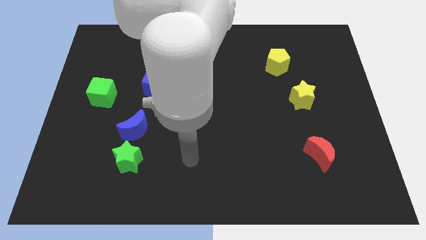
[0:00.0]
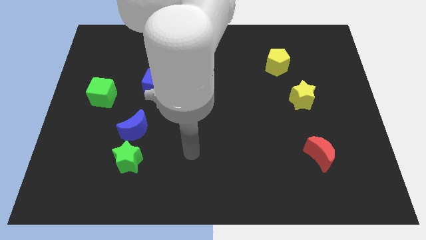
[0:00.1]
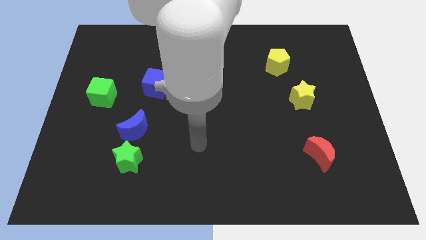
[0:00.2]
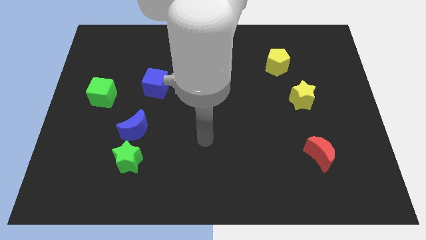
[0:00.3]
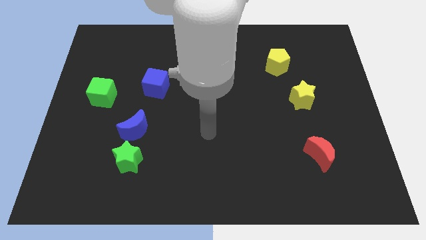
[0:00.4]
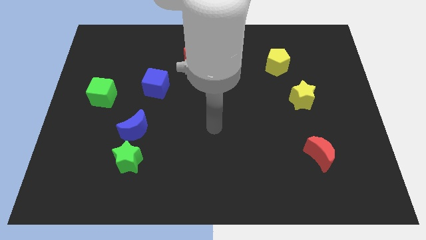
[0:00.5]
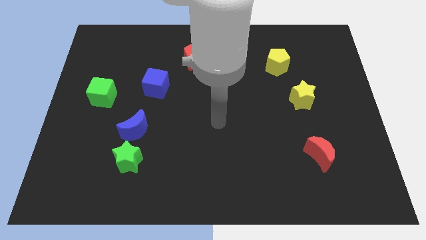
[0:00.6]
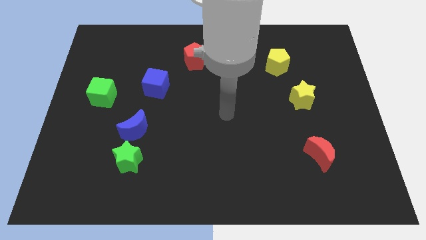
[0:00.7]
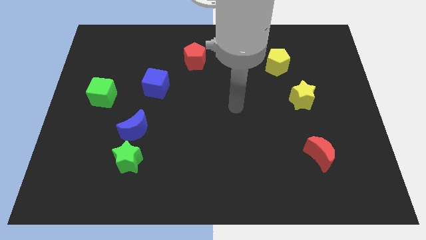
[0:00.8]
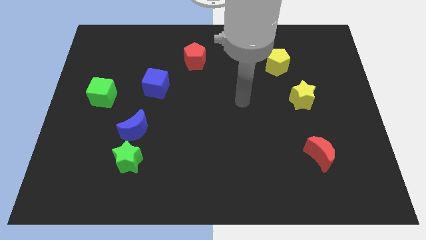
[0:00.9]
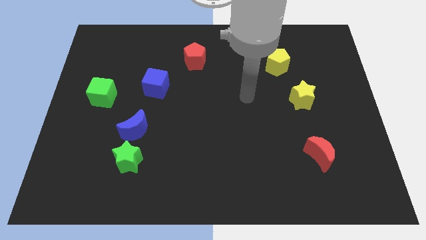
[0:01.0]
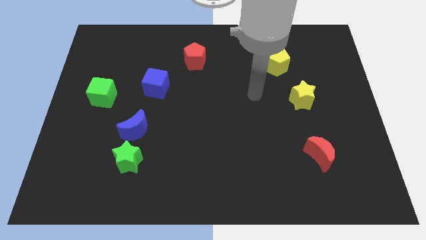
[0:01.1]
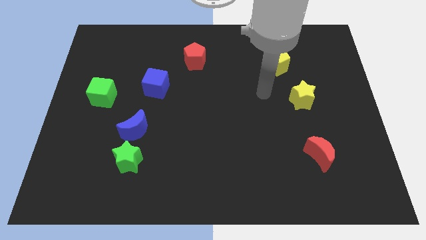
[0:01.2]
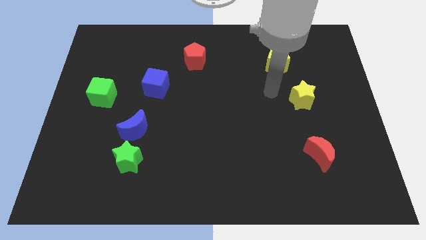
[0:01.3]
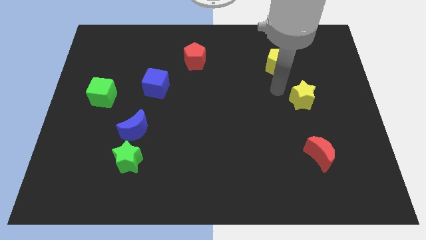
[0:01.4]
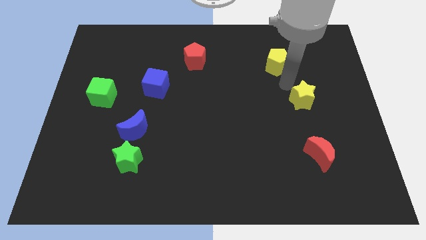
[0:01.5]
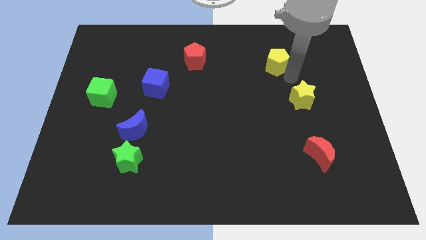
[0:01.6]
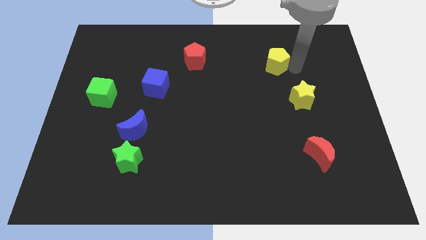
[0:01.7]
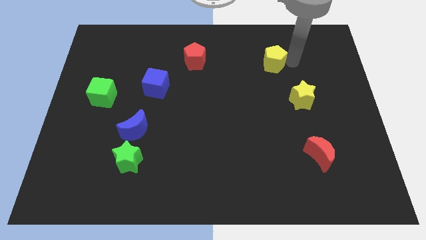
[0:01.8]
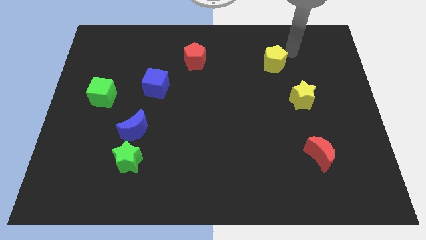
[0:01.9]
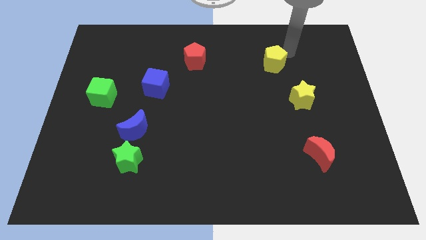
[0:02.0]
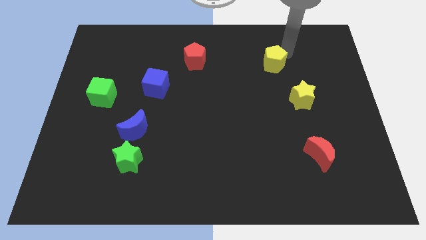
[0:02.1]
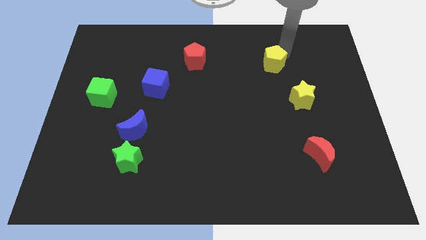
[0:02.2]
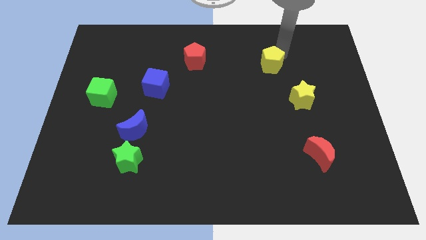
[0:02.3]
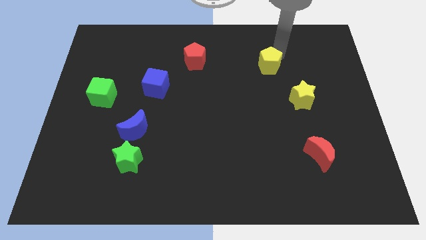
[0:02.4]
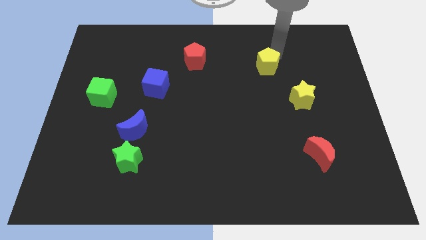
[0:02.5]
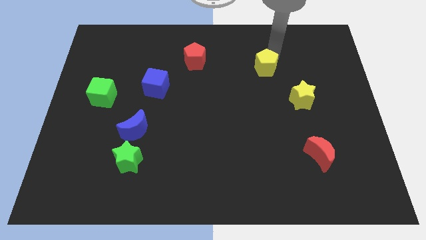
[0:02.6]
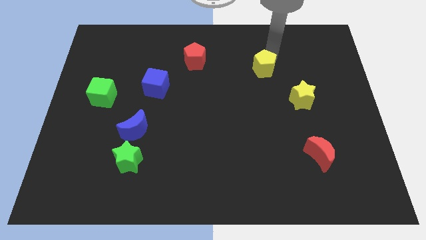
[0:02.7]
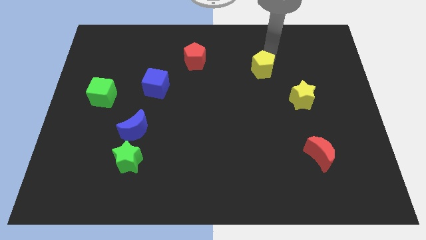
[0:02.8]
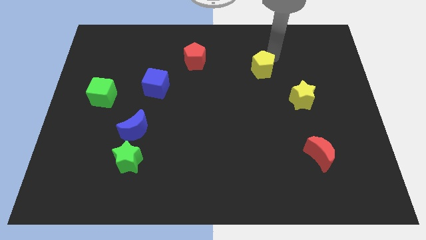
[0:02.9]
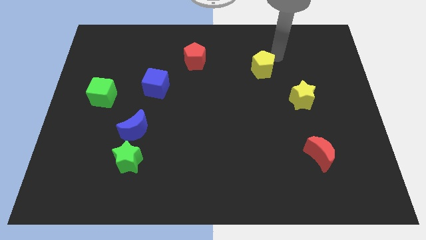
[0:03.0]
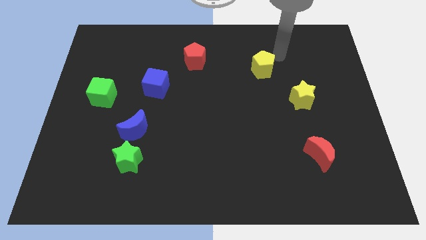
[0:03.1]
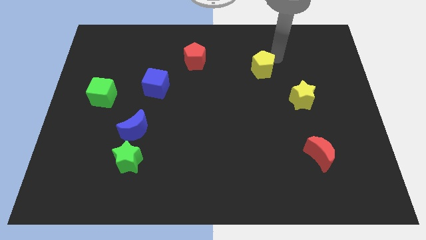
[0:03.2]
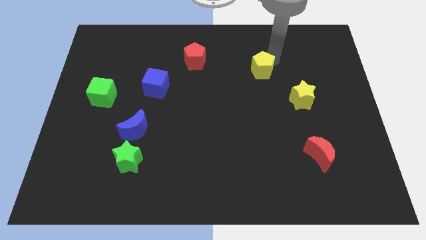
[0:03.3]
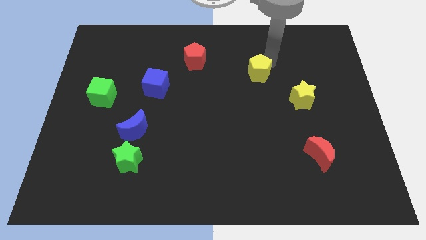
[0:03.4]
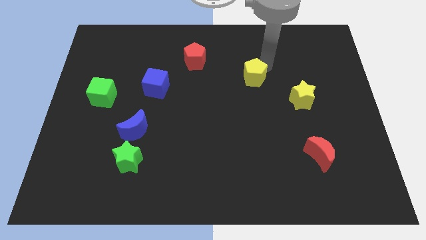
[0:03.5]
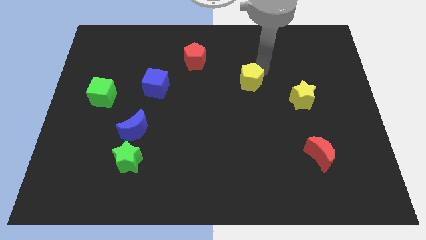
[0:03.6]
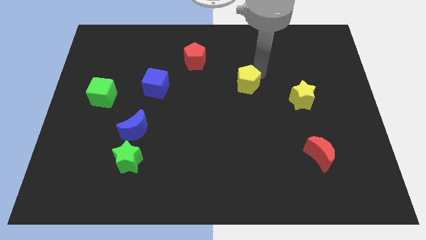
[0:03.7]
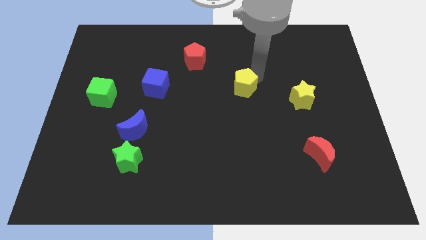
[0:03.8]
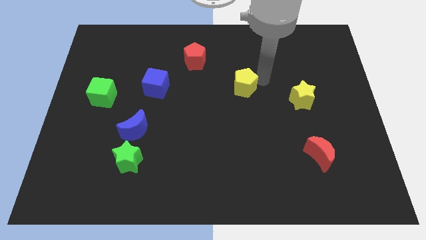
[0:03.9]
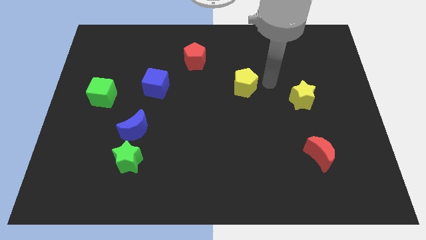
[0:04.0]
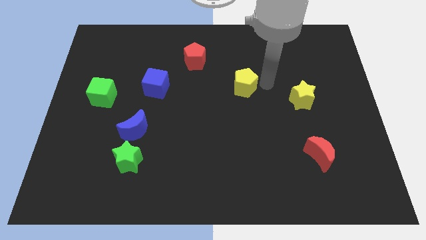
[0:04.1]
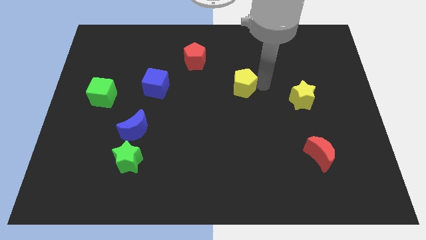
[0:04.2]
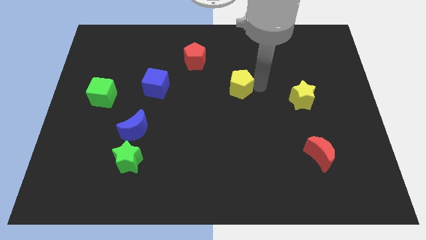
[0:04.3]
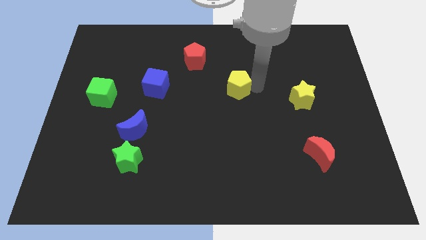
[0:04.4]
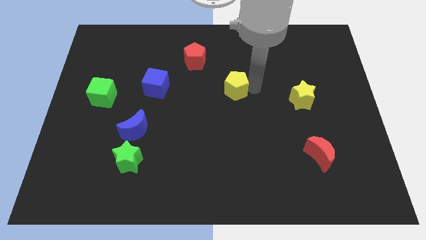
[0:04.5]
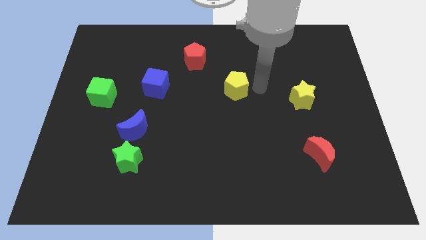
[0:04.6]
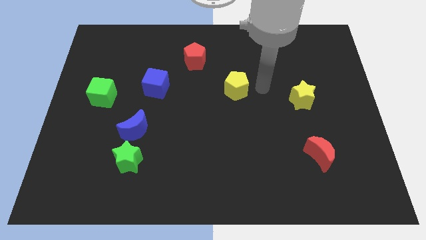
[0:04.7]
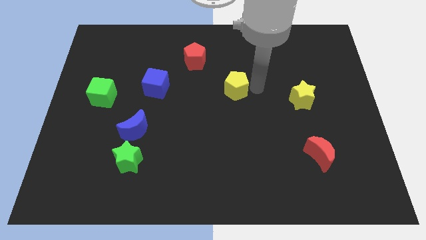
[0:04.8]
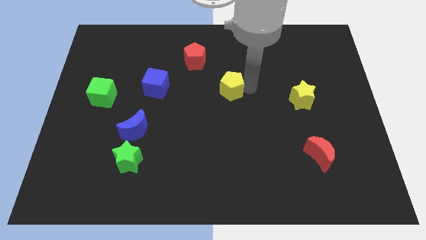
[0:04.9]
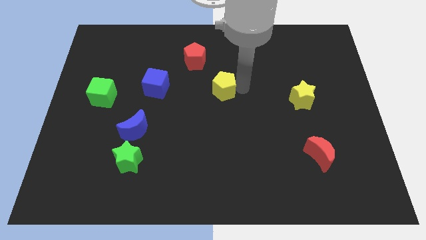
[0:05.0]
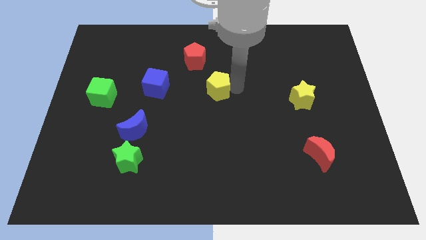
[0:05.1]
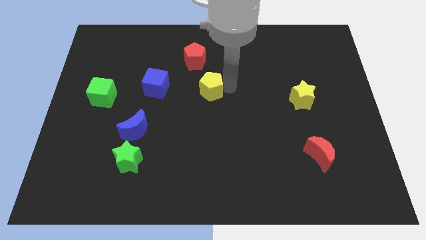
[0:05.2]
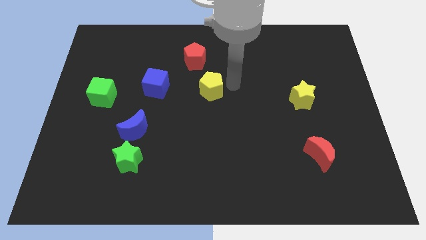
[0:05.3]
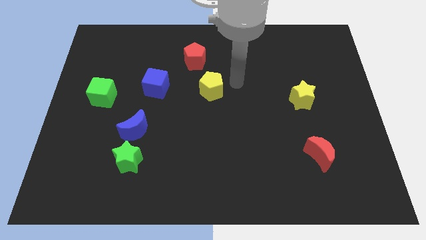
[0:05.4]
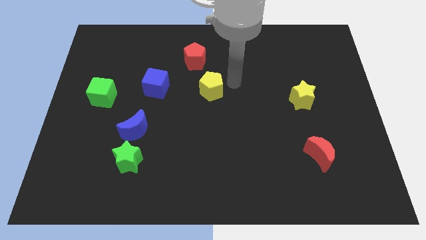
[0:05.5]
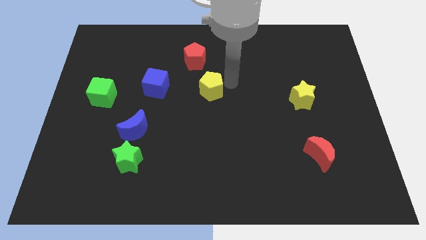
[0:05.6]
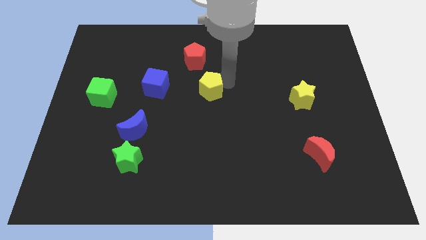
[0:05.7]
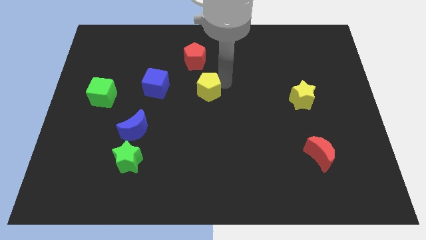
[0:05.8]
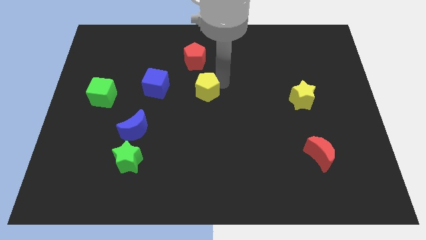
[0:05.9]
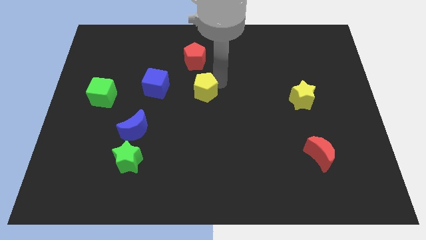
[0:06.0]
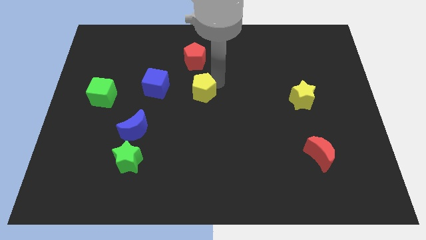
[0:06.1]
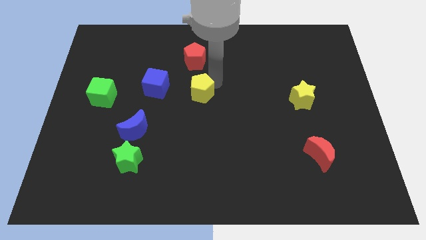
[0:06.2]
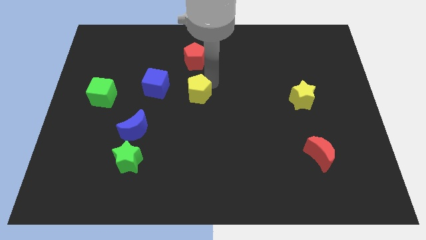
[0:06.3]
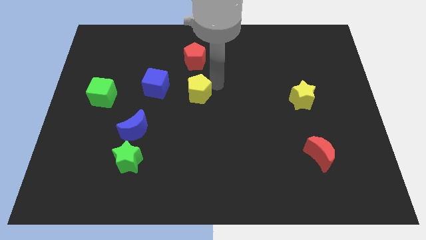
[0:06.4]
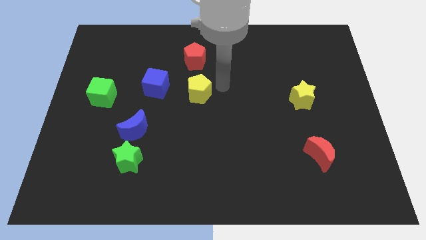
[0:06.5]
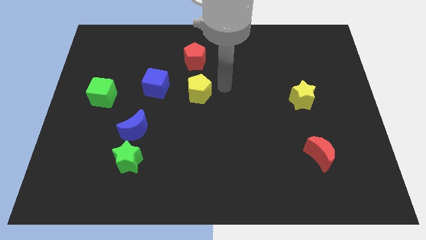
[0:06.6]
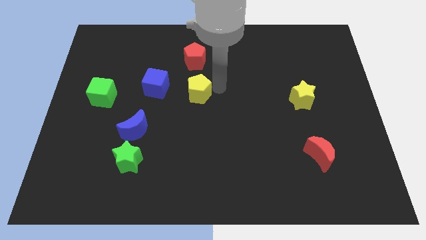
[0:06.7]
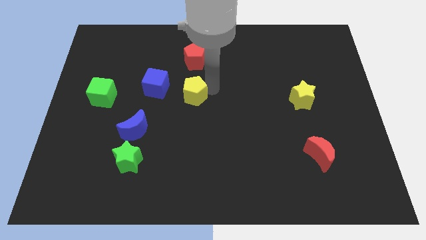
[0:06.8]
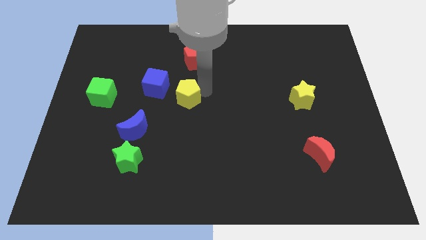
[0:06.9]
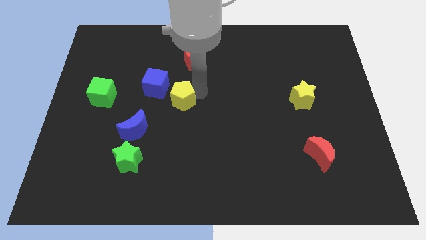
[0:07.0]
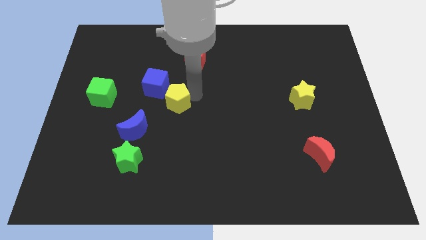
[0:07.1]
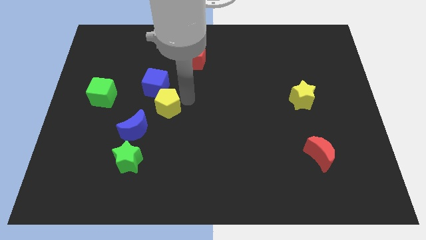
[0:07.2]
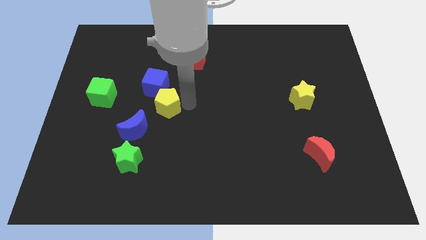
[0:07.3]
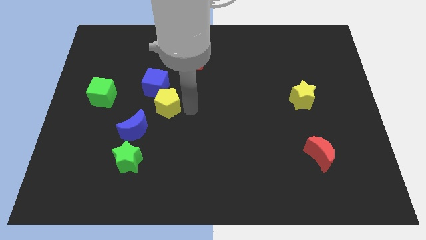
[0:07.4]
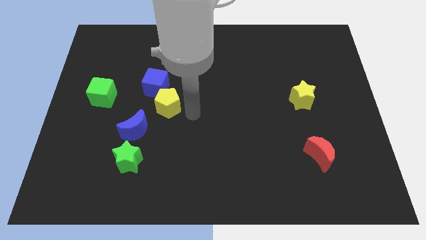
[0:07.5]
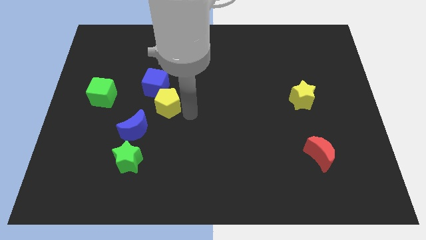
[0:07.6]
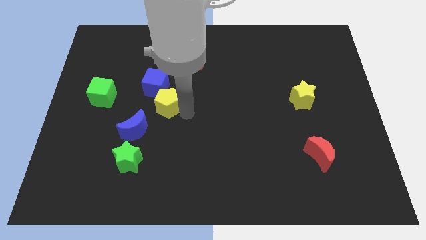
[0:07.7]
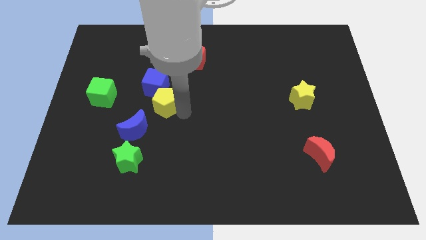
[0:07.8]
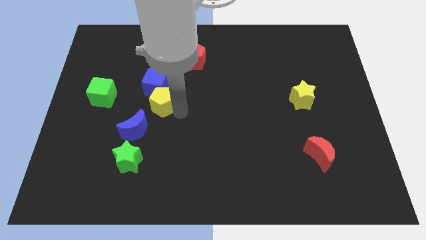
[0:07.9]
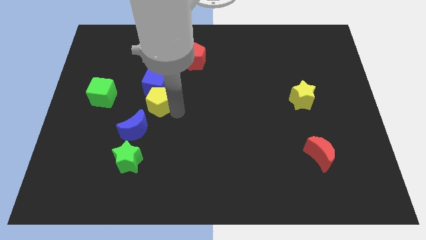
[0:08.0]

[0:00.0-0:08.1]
push the yellow pentagon to the top side of the blue moon
